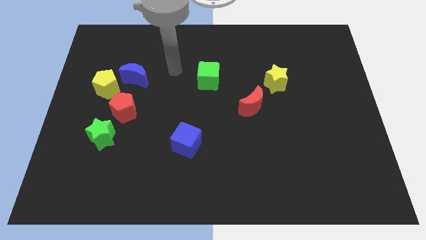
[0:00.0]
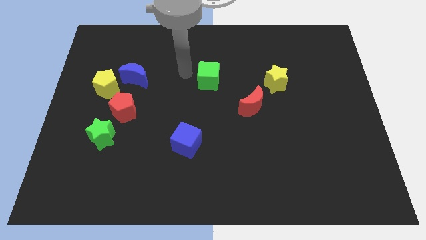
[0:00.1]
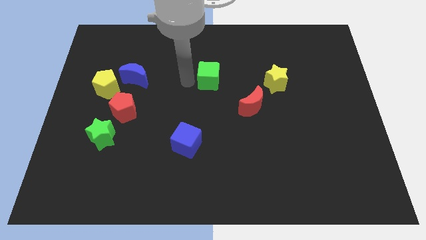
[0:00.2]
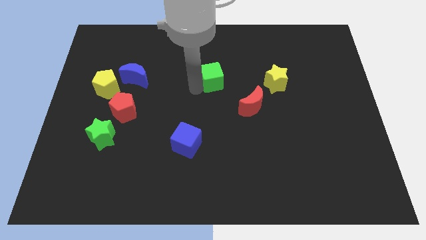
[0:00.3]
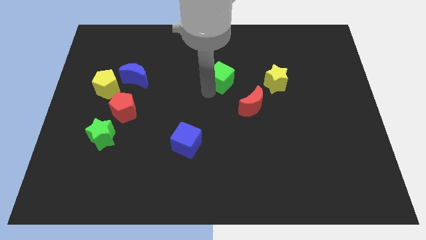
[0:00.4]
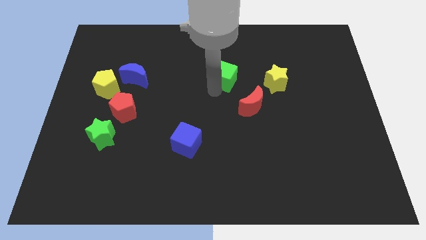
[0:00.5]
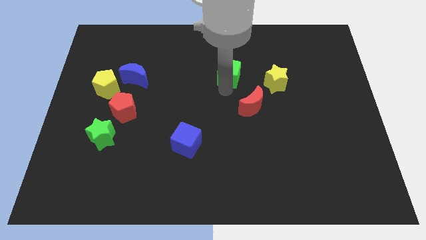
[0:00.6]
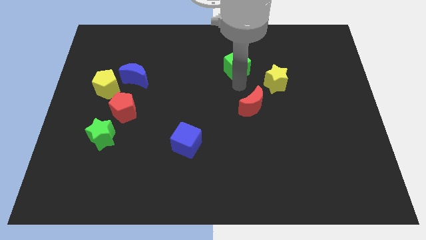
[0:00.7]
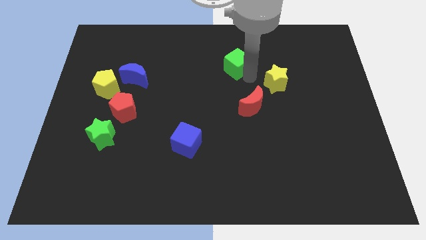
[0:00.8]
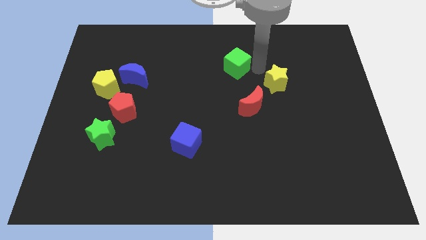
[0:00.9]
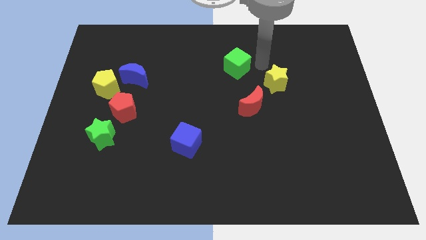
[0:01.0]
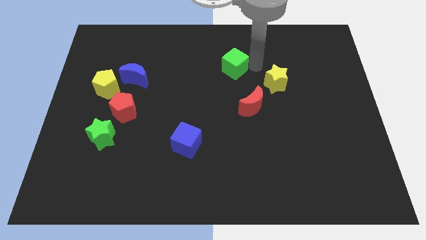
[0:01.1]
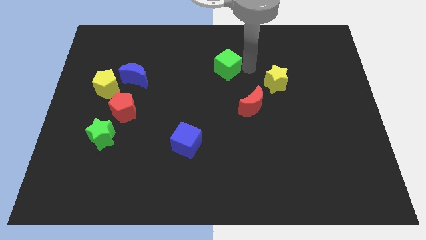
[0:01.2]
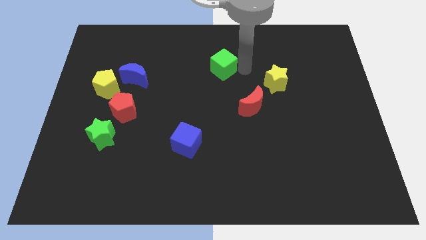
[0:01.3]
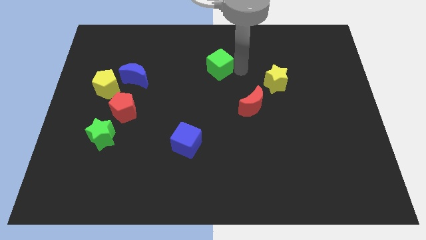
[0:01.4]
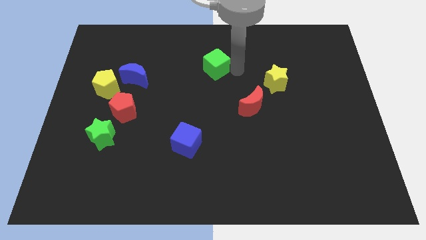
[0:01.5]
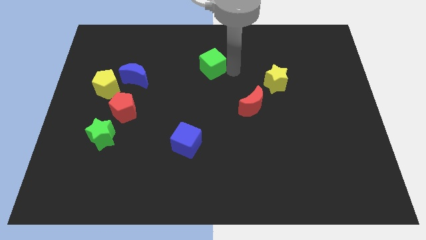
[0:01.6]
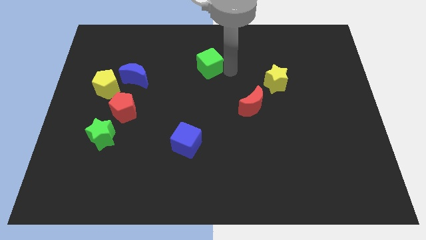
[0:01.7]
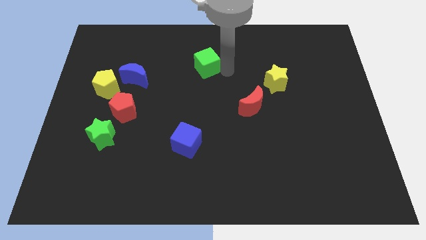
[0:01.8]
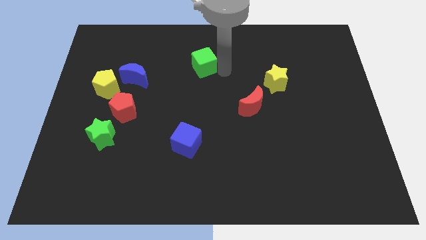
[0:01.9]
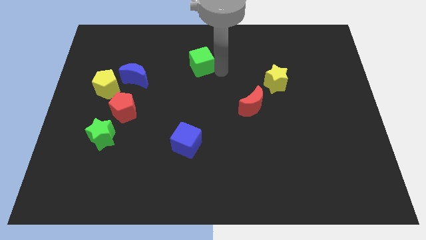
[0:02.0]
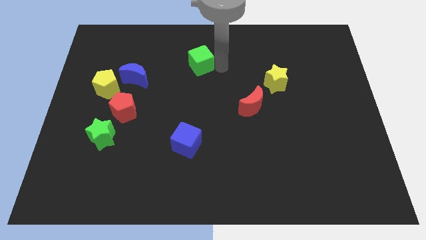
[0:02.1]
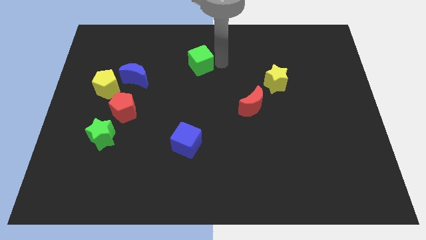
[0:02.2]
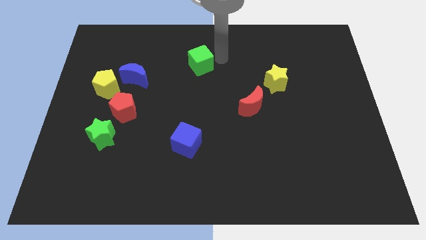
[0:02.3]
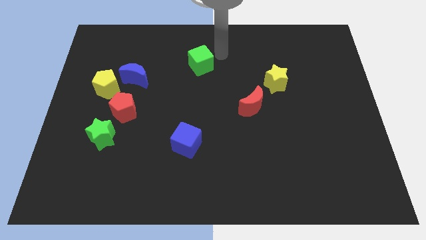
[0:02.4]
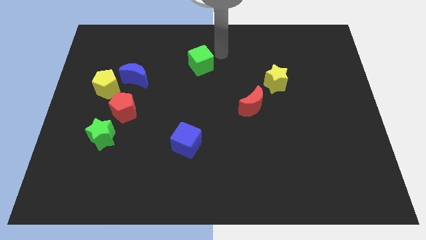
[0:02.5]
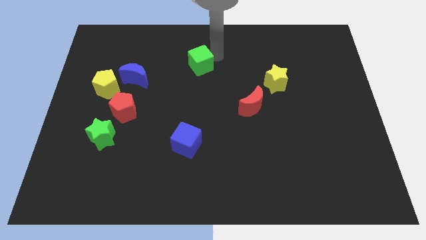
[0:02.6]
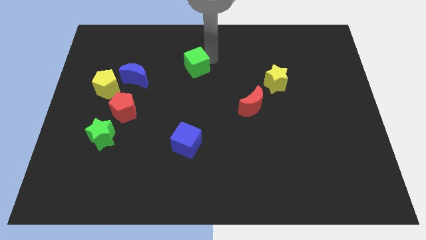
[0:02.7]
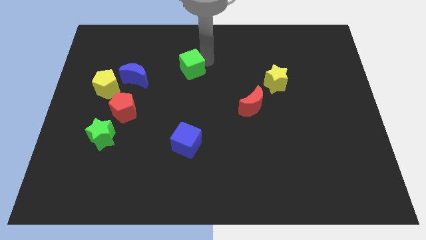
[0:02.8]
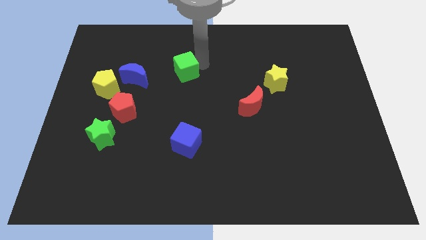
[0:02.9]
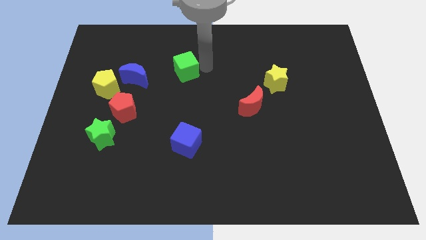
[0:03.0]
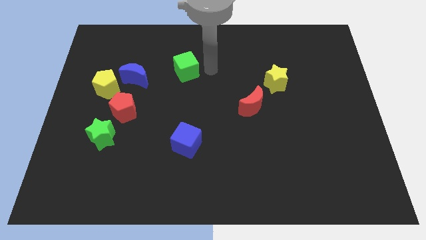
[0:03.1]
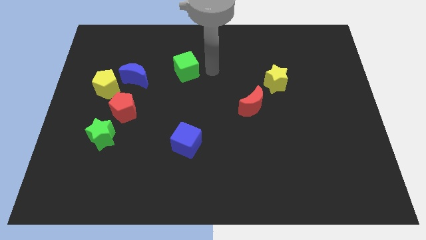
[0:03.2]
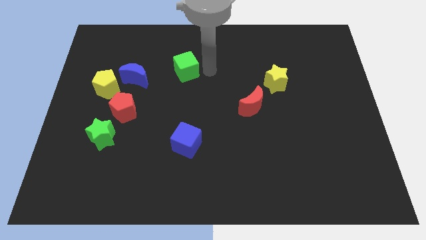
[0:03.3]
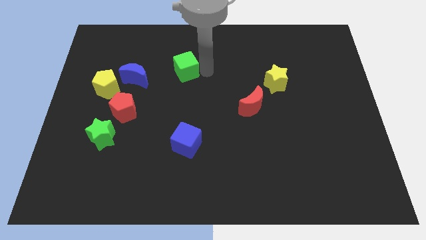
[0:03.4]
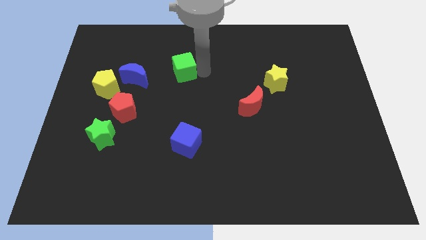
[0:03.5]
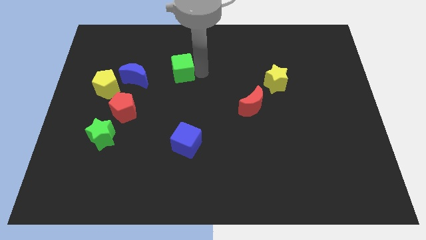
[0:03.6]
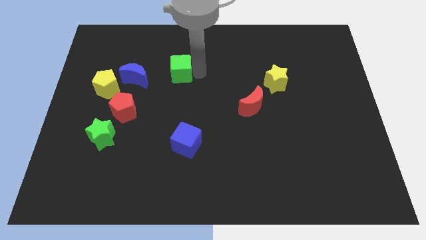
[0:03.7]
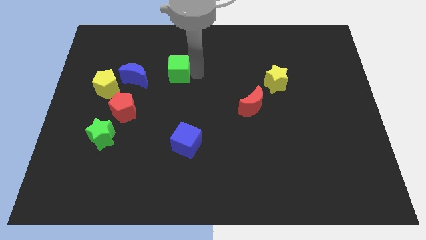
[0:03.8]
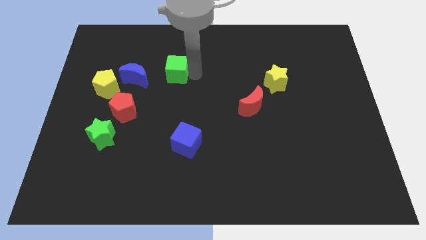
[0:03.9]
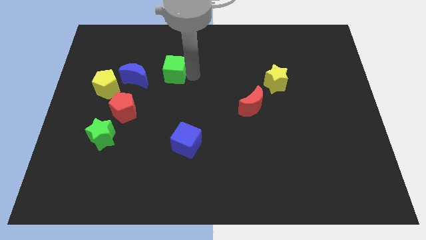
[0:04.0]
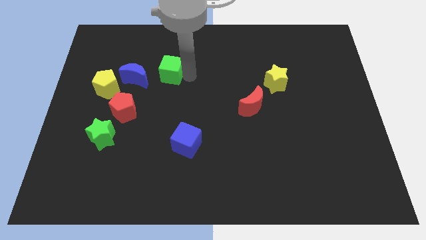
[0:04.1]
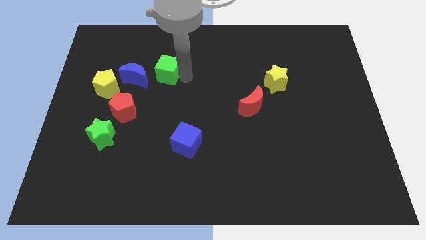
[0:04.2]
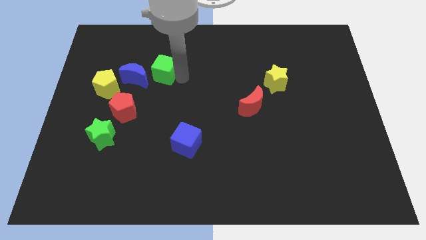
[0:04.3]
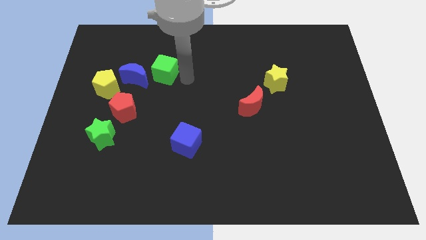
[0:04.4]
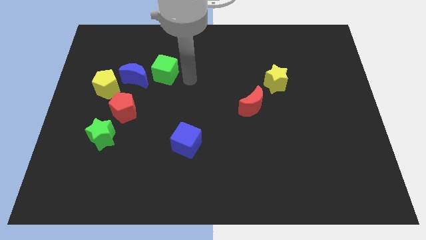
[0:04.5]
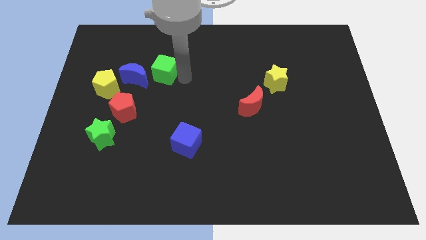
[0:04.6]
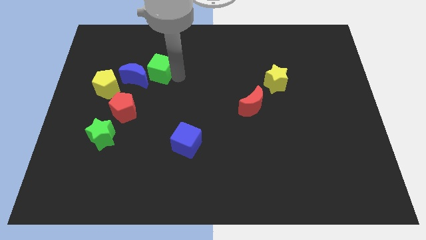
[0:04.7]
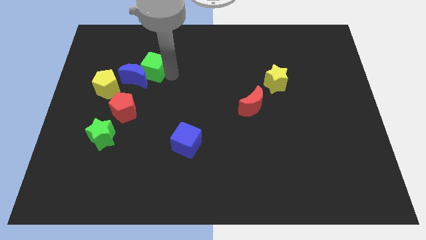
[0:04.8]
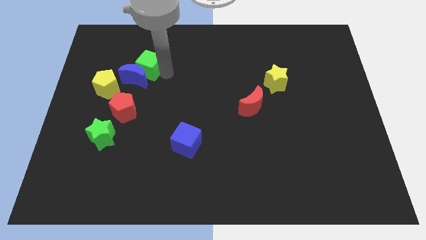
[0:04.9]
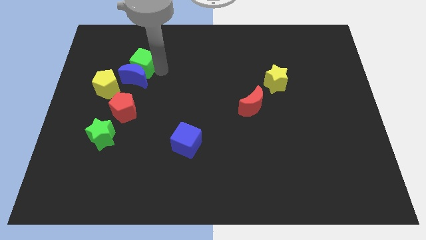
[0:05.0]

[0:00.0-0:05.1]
slide the green cube to the top side of the red pentagon

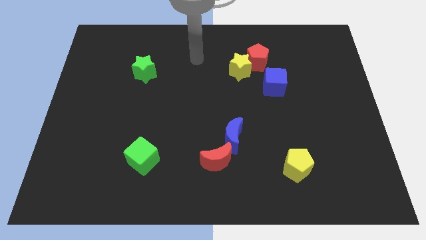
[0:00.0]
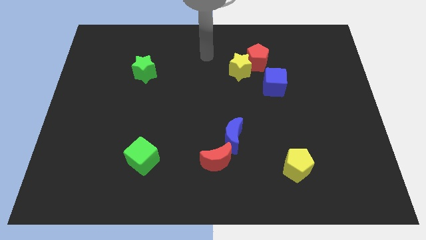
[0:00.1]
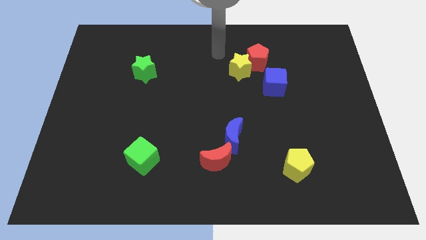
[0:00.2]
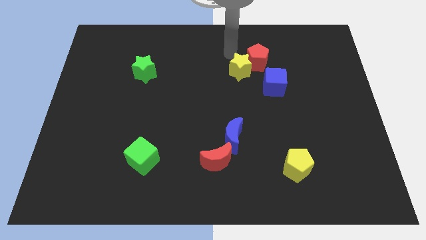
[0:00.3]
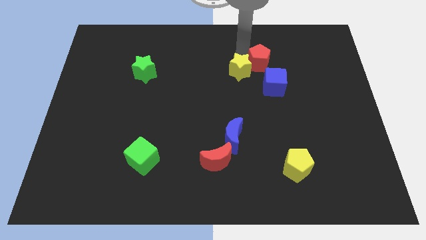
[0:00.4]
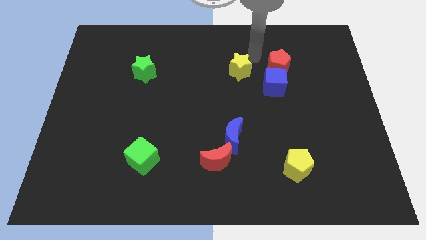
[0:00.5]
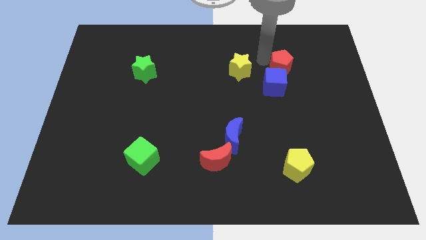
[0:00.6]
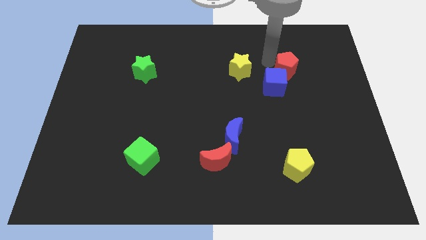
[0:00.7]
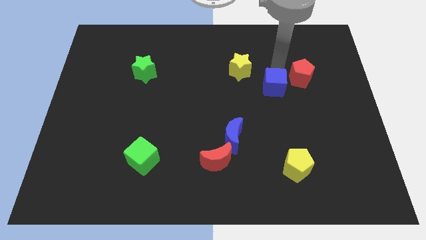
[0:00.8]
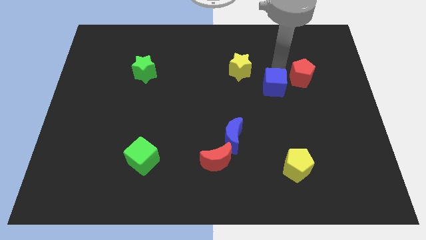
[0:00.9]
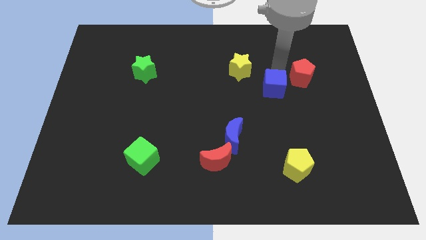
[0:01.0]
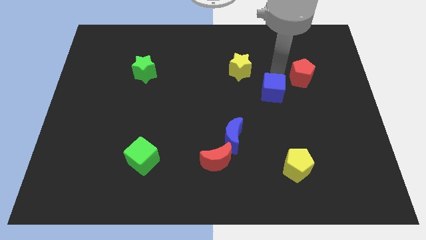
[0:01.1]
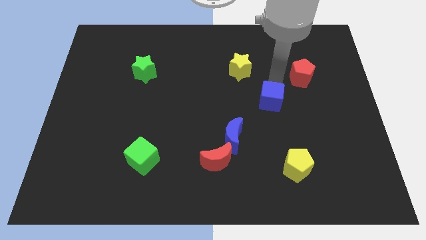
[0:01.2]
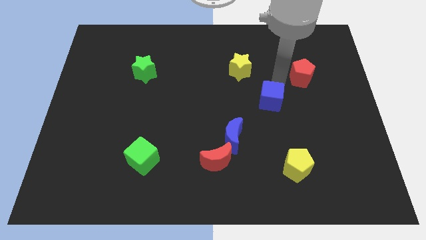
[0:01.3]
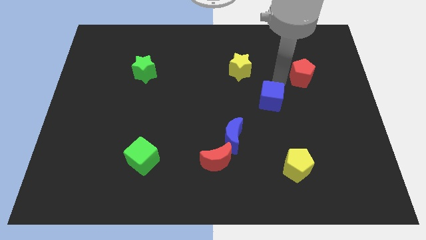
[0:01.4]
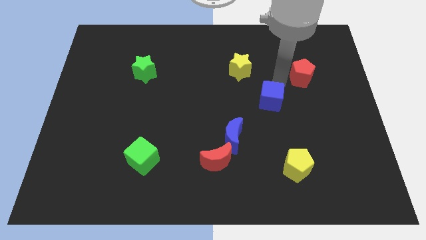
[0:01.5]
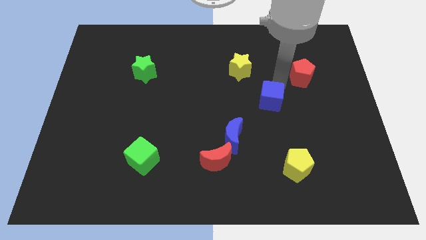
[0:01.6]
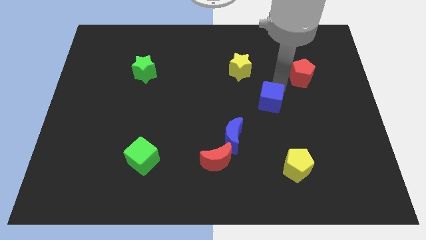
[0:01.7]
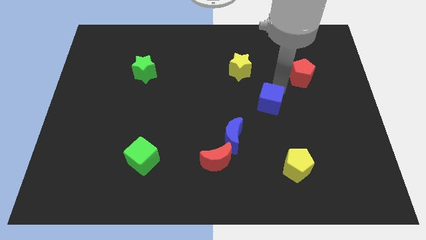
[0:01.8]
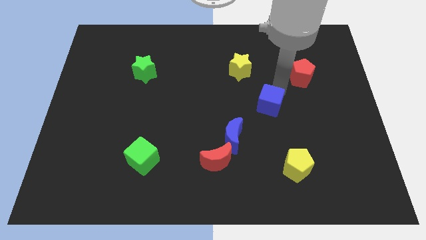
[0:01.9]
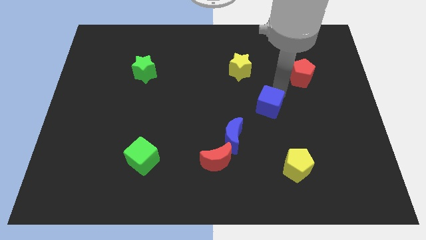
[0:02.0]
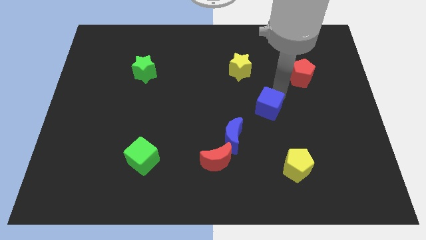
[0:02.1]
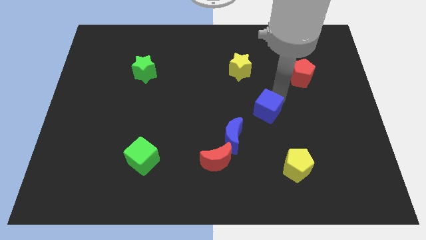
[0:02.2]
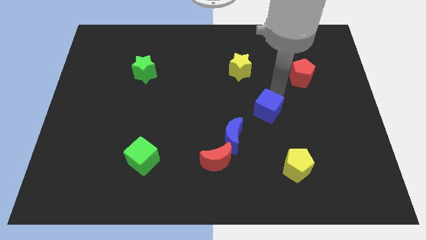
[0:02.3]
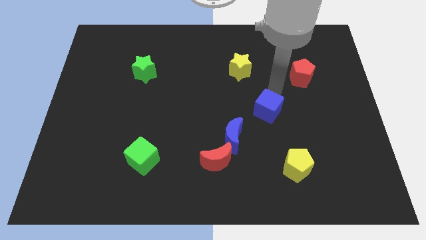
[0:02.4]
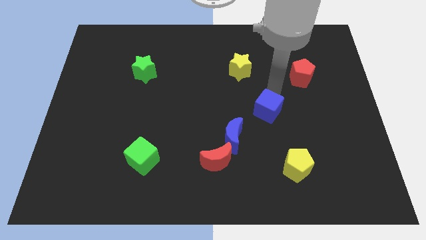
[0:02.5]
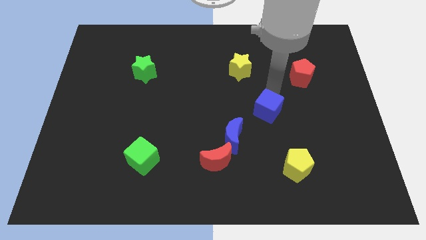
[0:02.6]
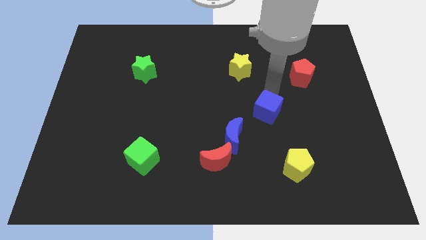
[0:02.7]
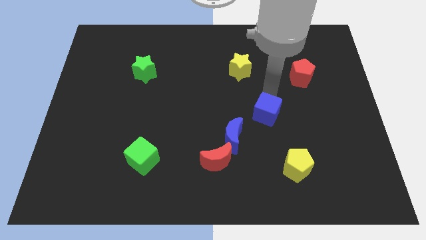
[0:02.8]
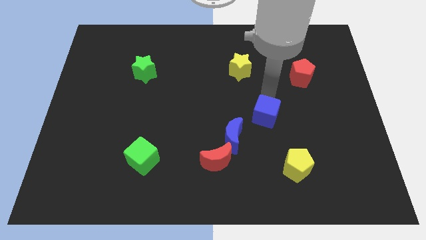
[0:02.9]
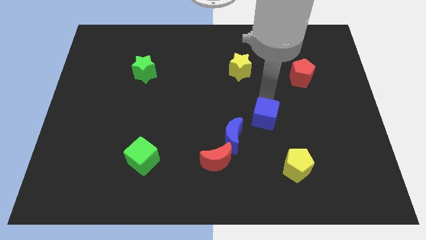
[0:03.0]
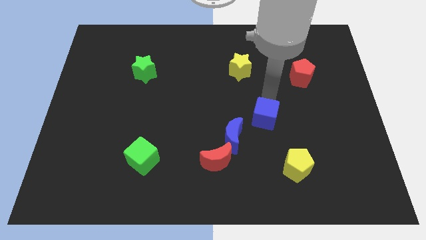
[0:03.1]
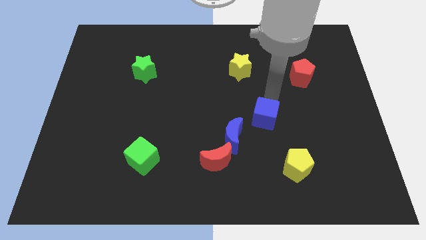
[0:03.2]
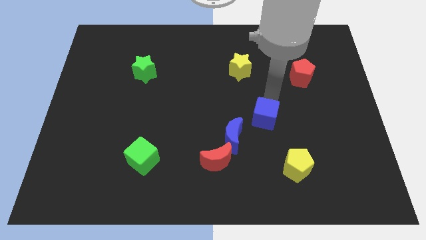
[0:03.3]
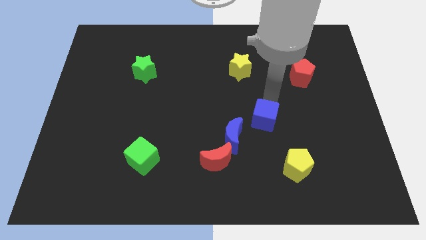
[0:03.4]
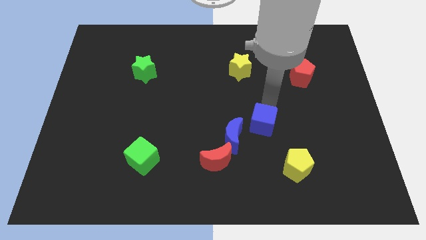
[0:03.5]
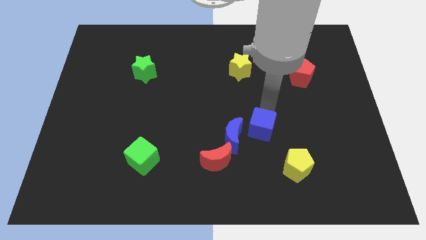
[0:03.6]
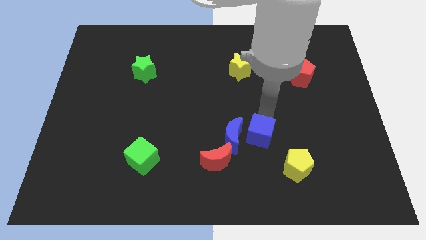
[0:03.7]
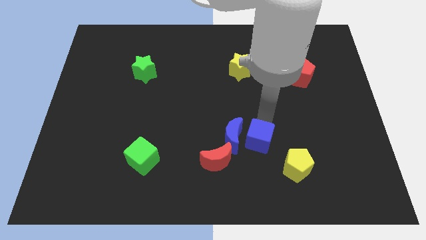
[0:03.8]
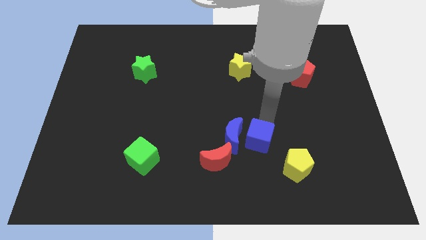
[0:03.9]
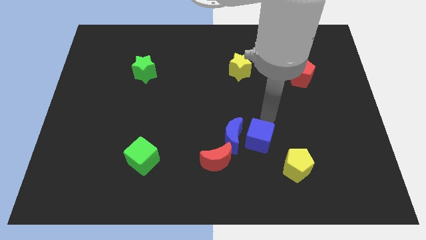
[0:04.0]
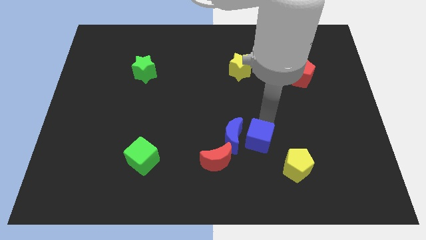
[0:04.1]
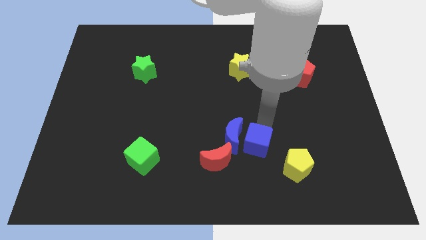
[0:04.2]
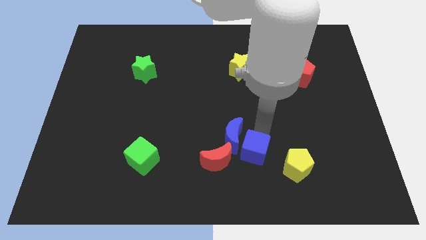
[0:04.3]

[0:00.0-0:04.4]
move the blue cube to the left of the yellow pentagon
